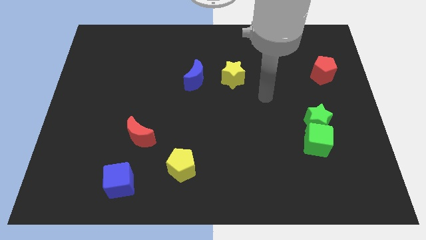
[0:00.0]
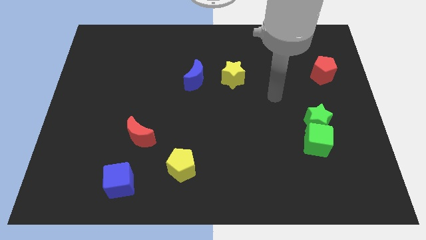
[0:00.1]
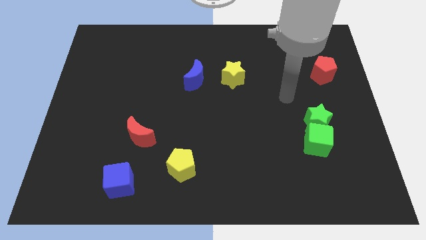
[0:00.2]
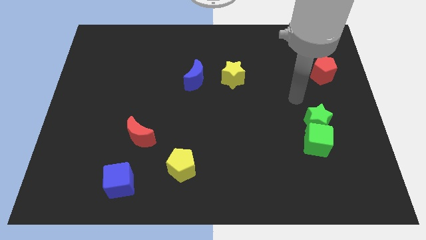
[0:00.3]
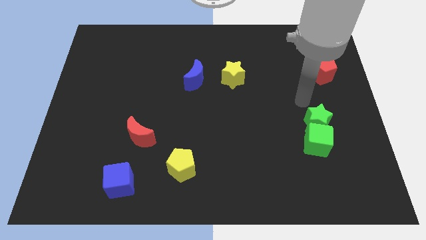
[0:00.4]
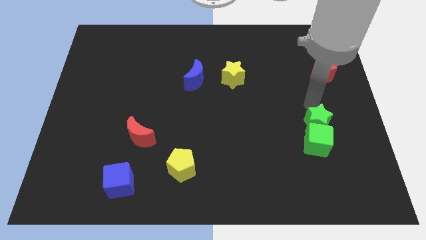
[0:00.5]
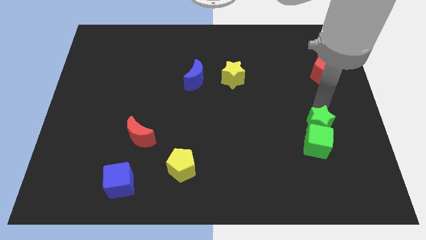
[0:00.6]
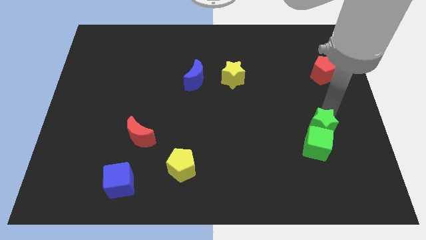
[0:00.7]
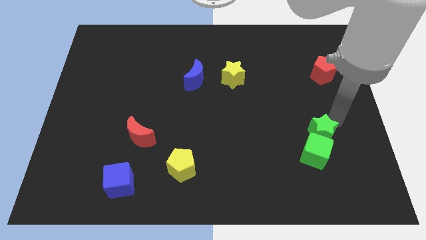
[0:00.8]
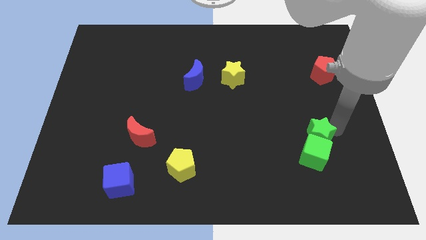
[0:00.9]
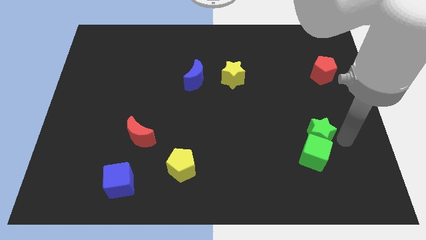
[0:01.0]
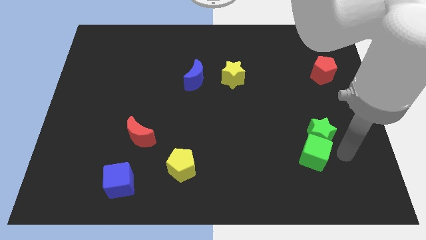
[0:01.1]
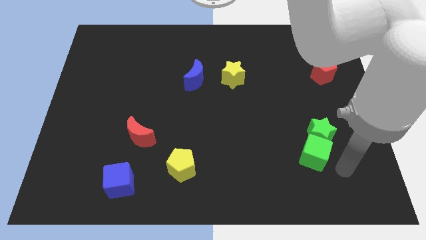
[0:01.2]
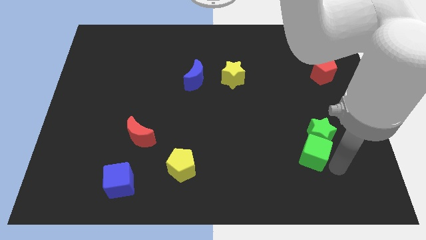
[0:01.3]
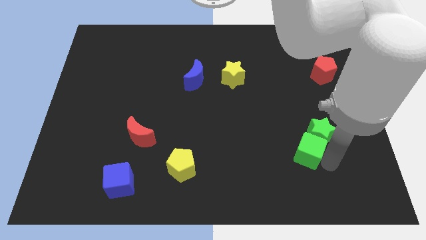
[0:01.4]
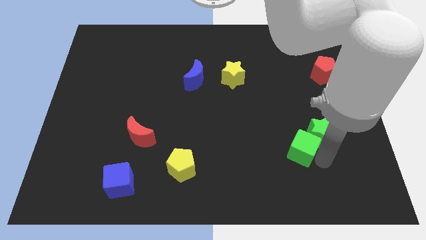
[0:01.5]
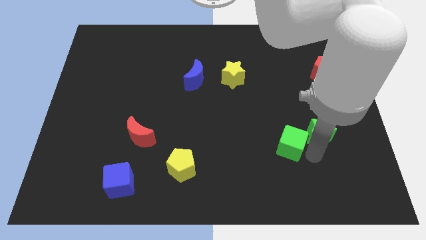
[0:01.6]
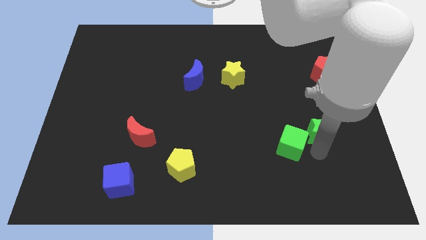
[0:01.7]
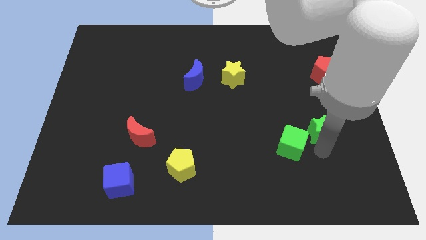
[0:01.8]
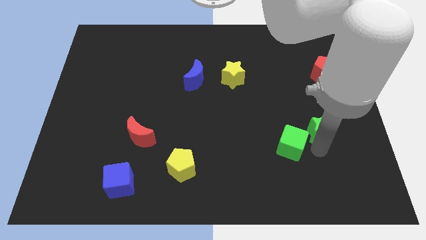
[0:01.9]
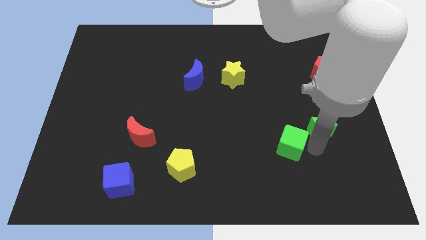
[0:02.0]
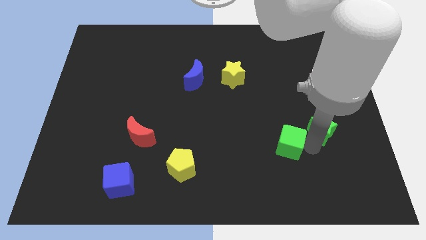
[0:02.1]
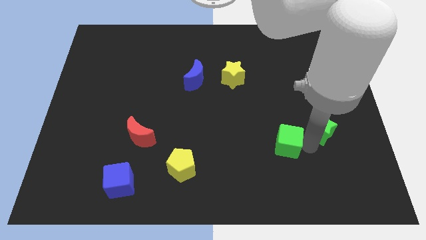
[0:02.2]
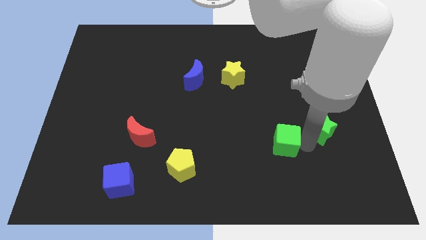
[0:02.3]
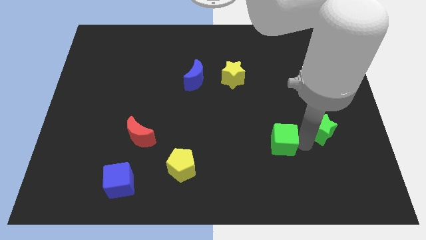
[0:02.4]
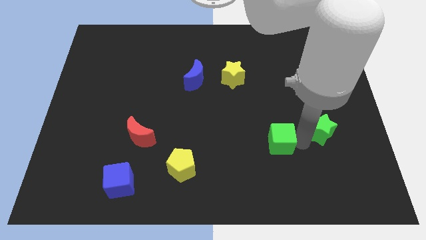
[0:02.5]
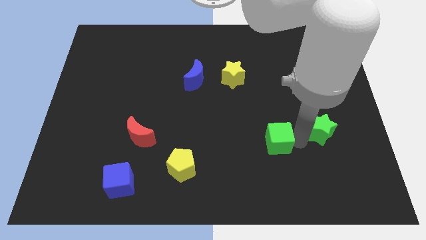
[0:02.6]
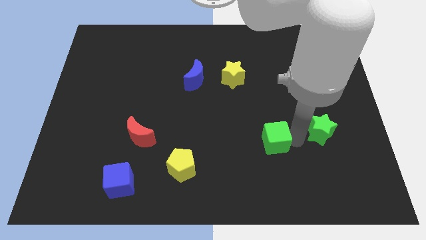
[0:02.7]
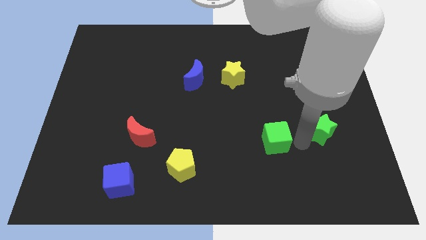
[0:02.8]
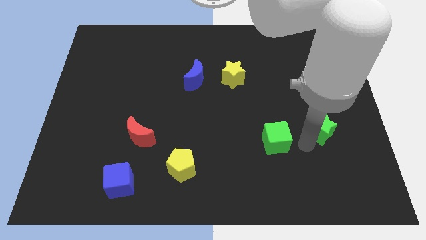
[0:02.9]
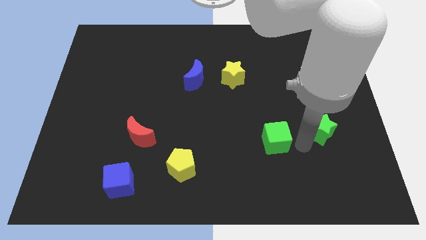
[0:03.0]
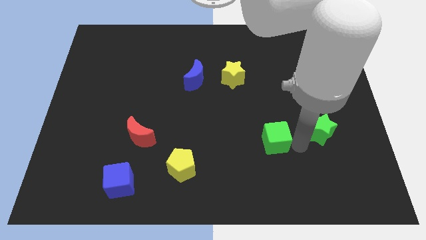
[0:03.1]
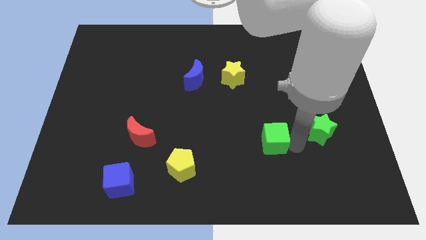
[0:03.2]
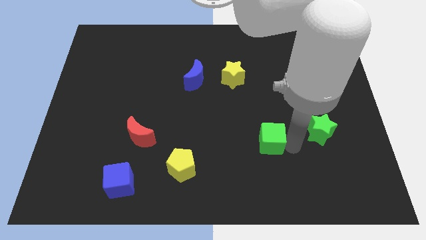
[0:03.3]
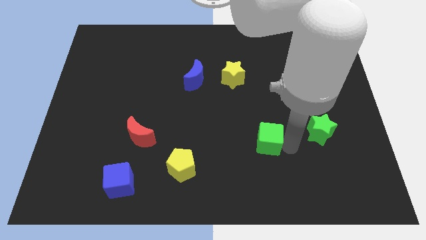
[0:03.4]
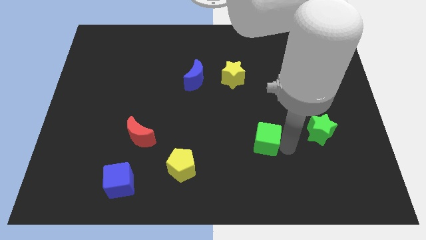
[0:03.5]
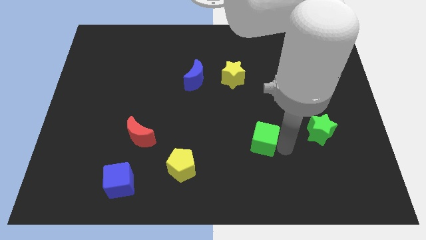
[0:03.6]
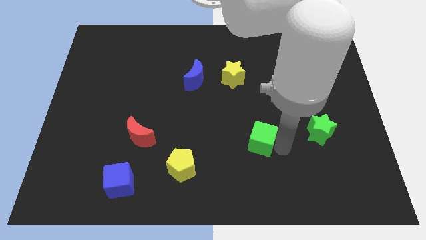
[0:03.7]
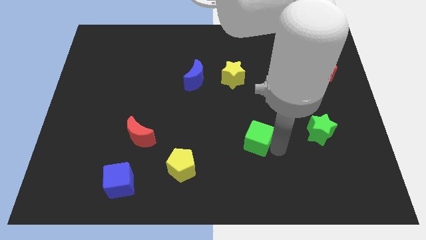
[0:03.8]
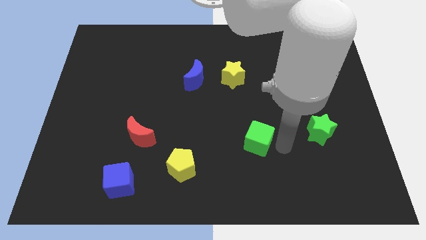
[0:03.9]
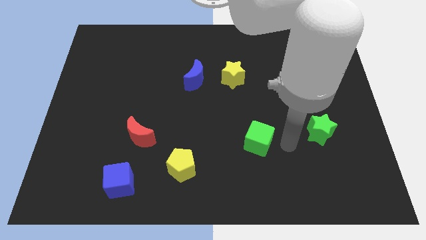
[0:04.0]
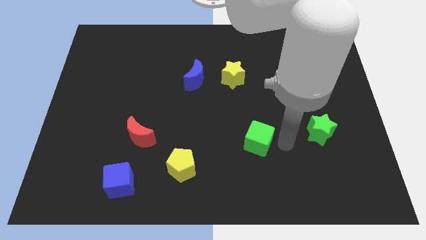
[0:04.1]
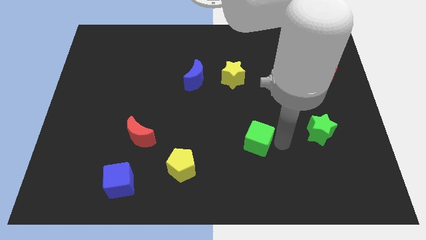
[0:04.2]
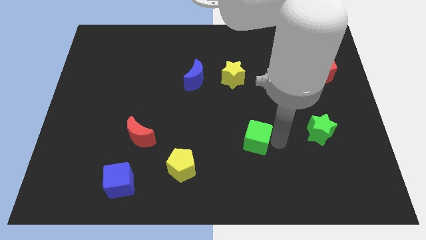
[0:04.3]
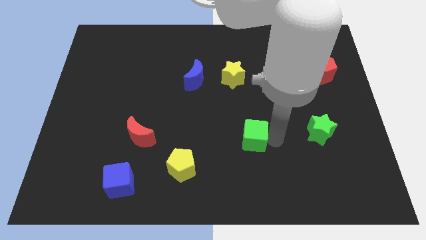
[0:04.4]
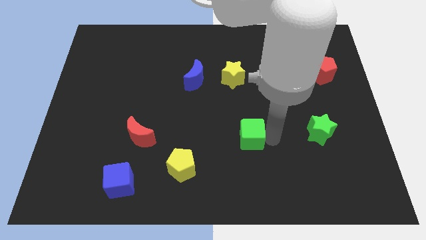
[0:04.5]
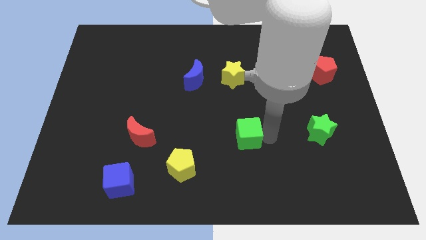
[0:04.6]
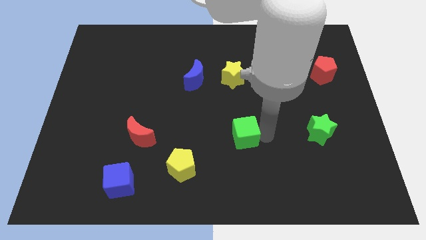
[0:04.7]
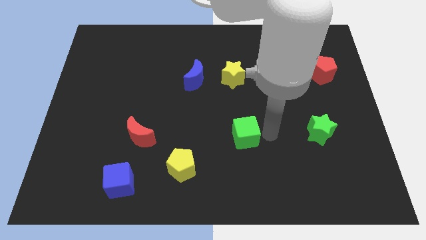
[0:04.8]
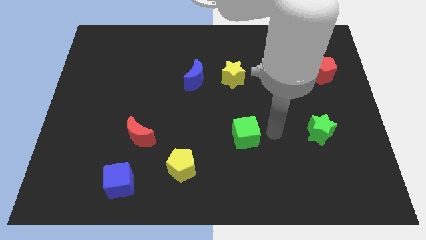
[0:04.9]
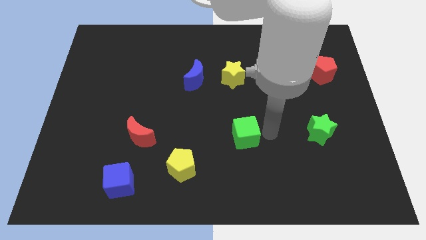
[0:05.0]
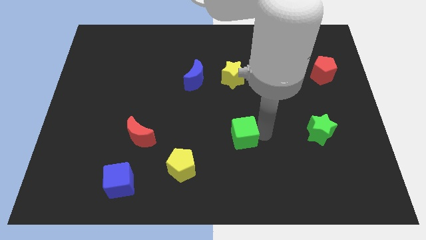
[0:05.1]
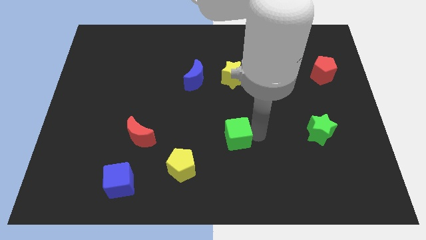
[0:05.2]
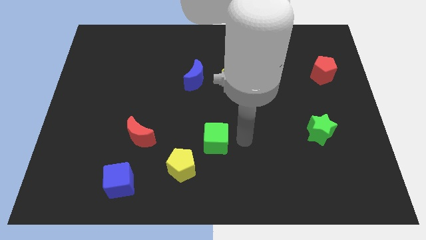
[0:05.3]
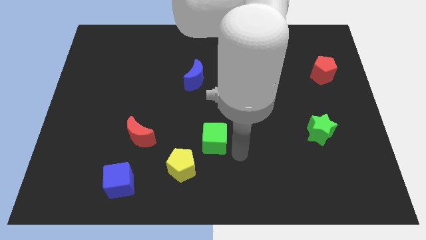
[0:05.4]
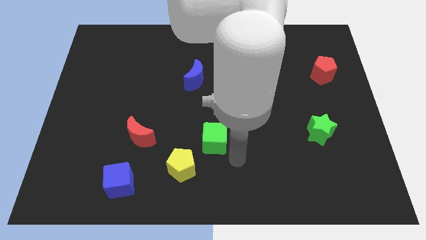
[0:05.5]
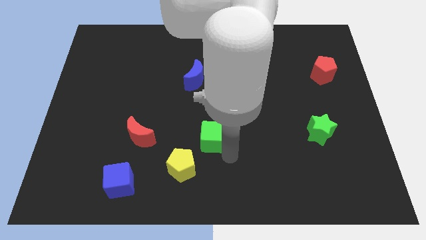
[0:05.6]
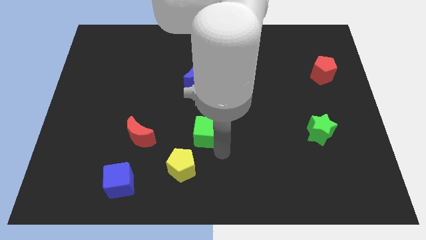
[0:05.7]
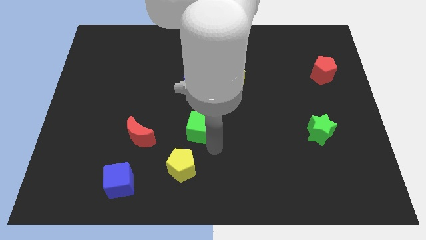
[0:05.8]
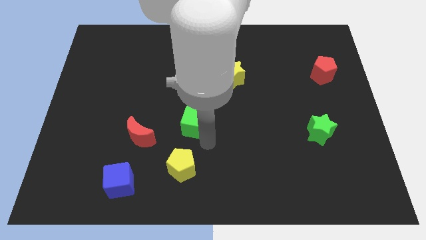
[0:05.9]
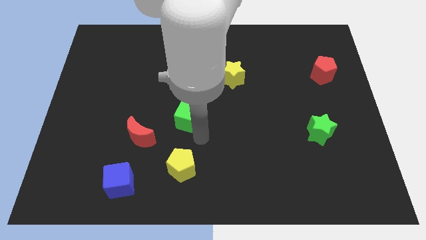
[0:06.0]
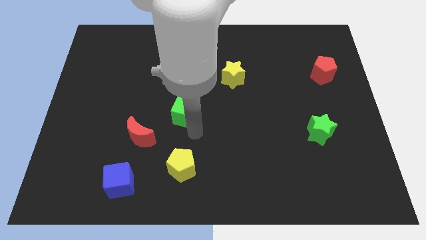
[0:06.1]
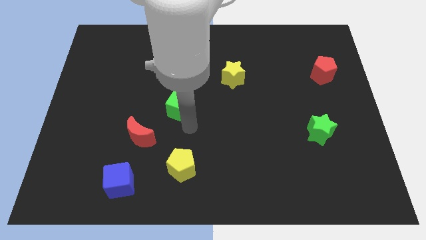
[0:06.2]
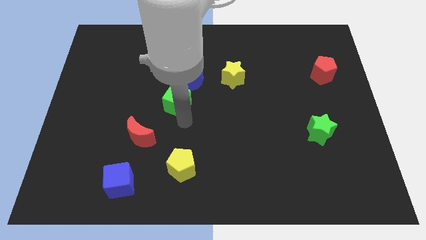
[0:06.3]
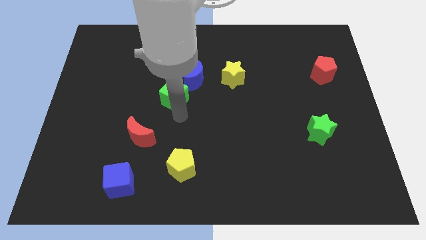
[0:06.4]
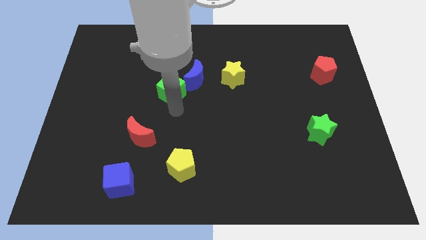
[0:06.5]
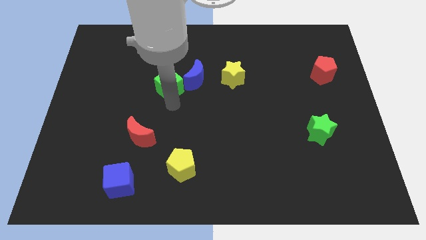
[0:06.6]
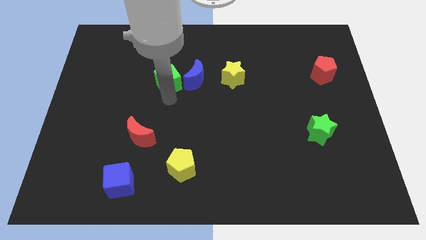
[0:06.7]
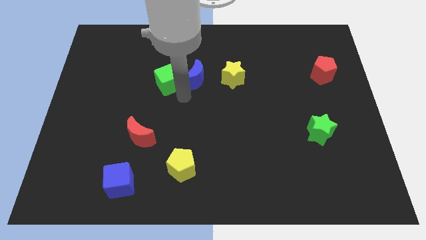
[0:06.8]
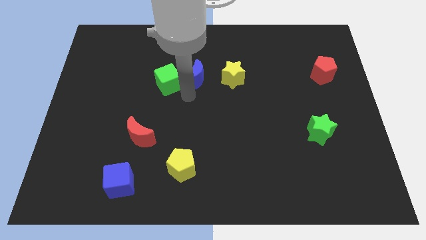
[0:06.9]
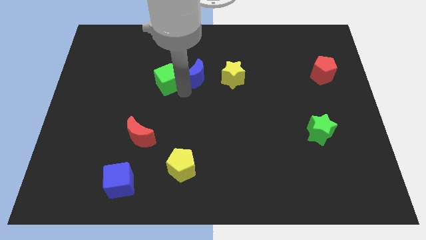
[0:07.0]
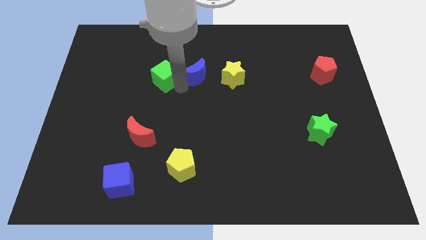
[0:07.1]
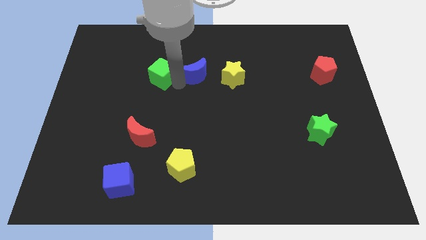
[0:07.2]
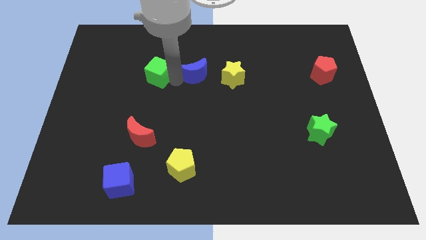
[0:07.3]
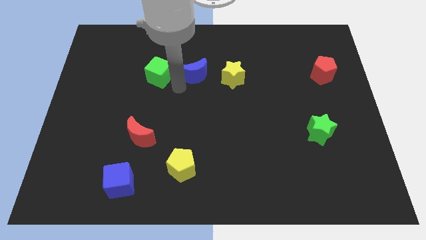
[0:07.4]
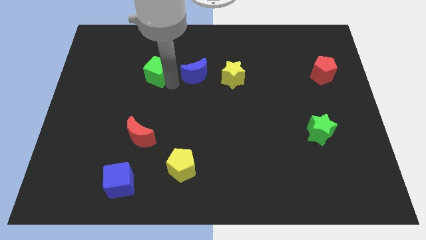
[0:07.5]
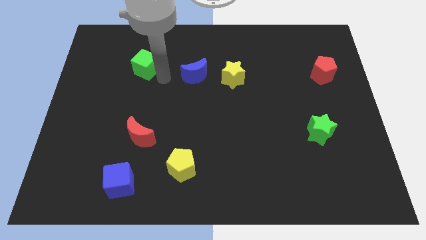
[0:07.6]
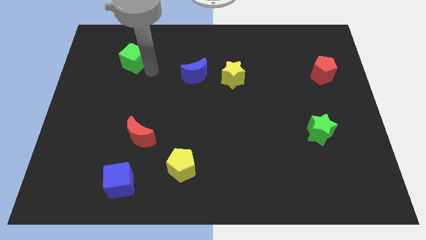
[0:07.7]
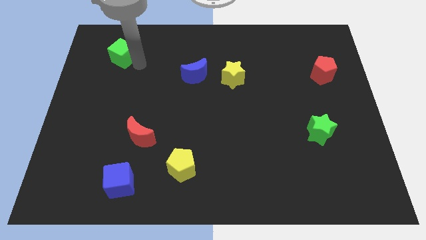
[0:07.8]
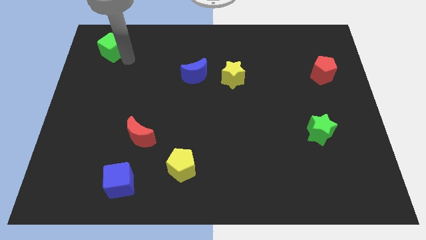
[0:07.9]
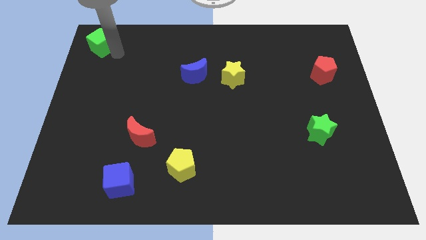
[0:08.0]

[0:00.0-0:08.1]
put the green cube to the top left
